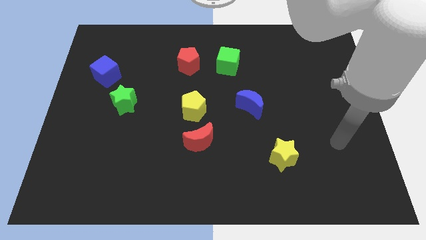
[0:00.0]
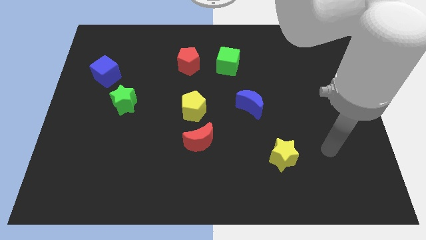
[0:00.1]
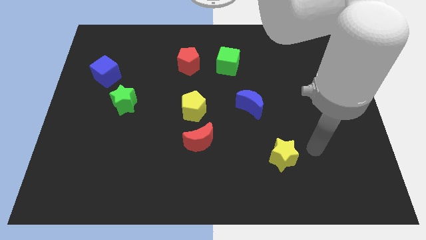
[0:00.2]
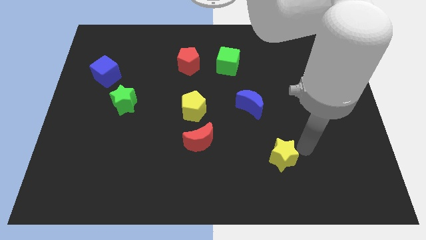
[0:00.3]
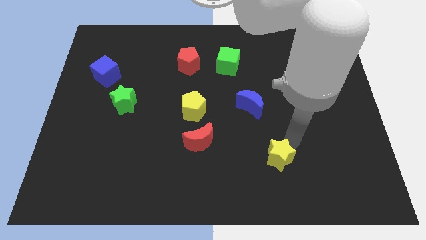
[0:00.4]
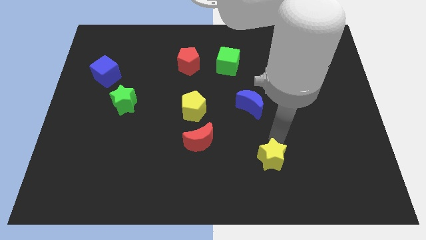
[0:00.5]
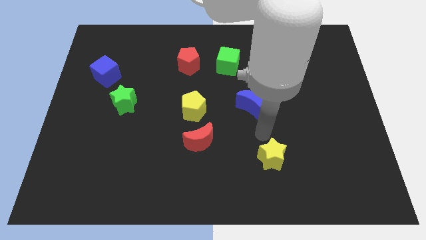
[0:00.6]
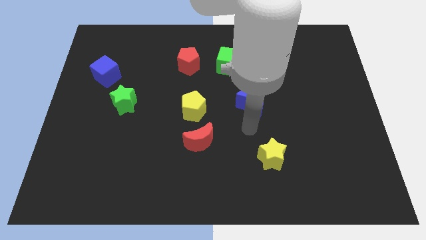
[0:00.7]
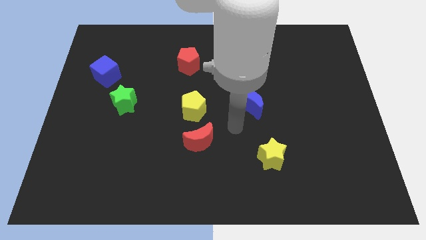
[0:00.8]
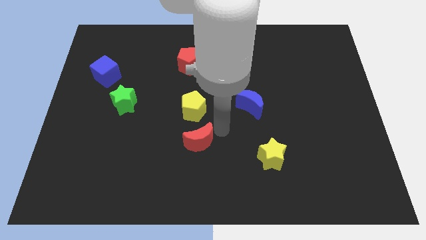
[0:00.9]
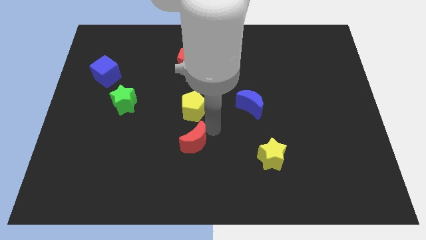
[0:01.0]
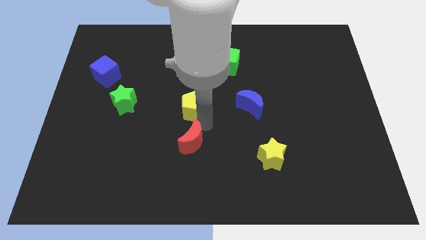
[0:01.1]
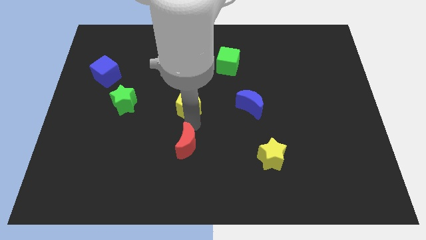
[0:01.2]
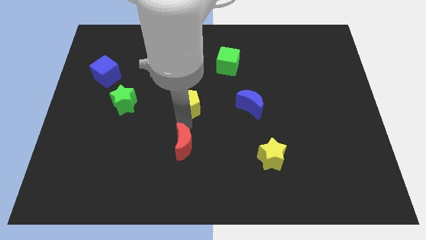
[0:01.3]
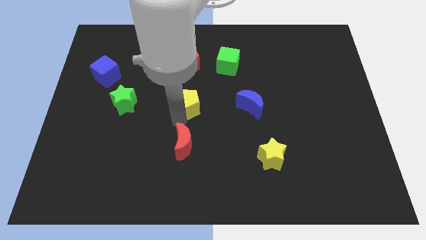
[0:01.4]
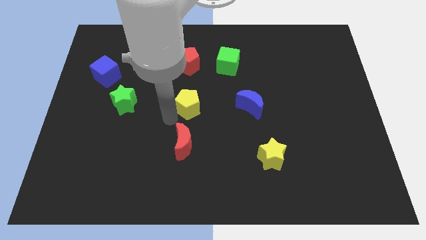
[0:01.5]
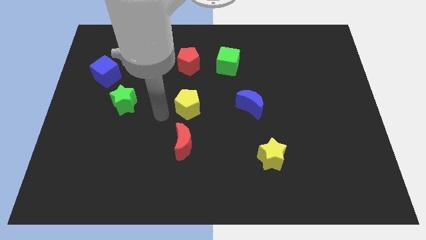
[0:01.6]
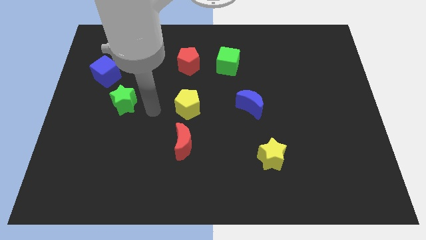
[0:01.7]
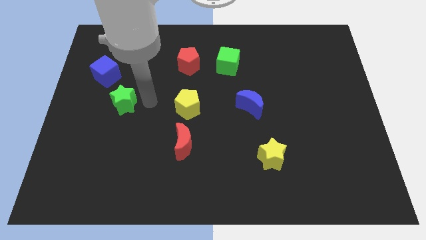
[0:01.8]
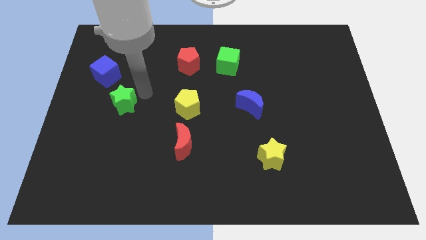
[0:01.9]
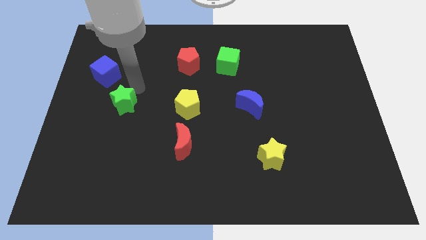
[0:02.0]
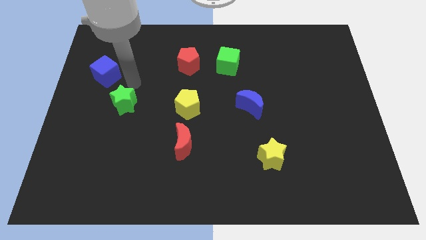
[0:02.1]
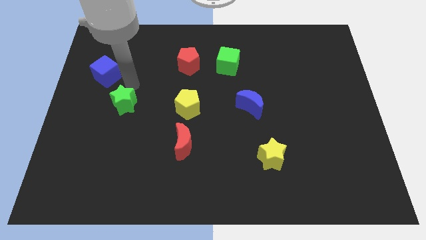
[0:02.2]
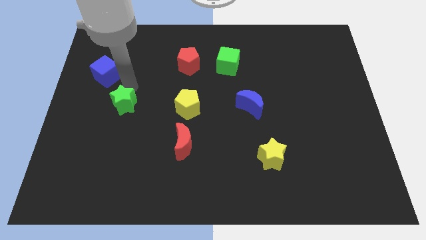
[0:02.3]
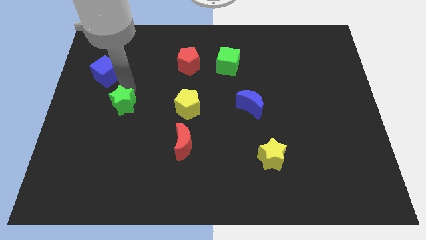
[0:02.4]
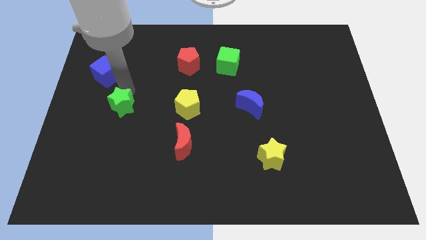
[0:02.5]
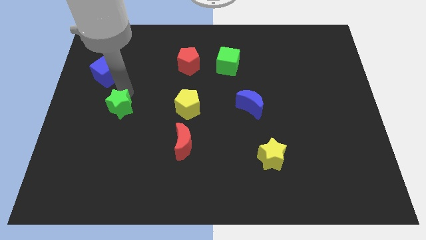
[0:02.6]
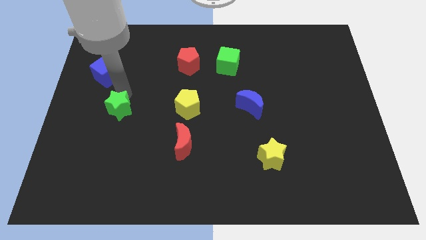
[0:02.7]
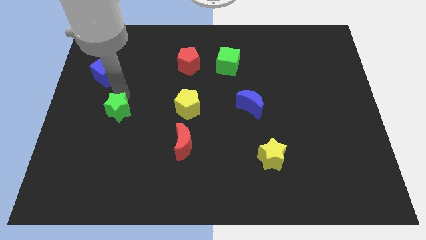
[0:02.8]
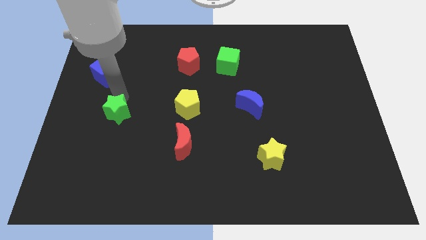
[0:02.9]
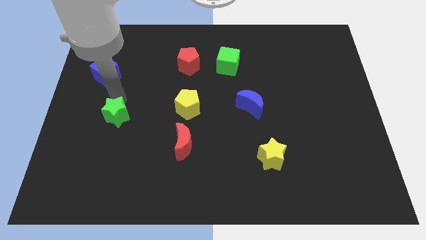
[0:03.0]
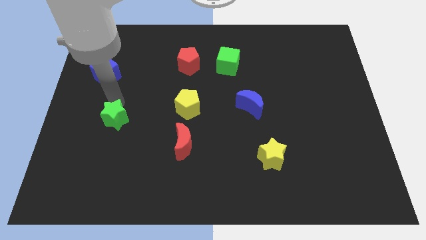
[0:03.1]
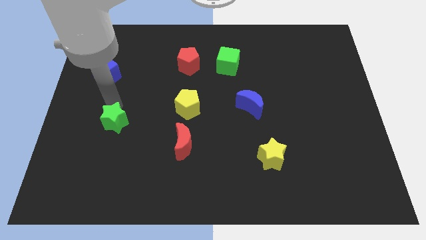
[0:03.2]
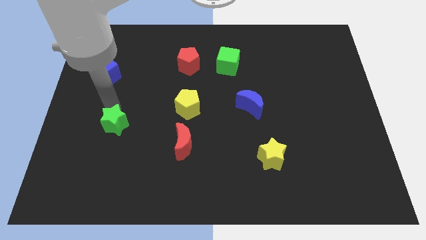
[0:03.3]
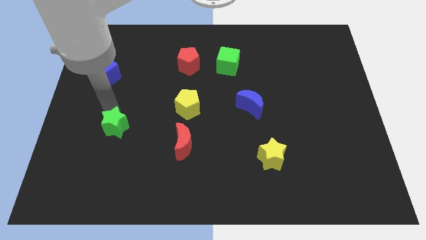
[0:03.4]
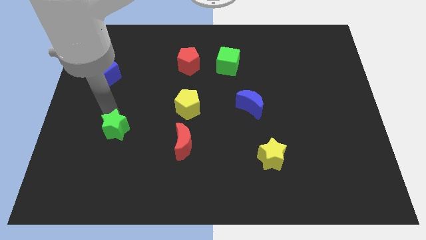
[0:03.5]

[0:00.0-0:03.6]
slightly move the green star down

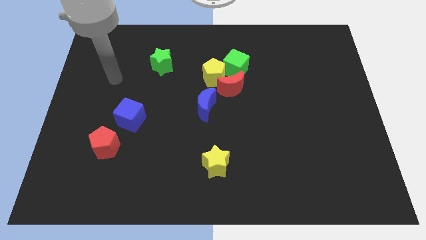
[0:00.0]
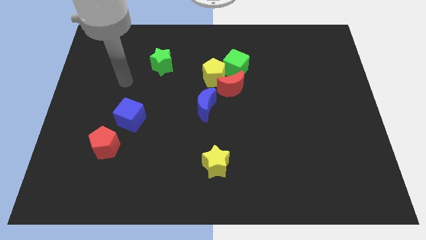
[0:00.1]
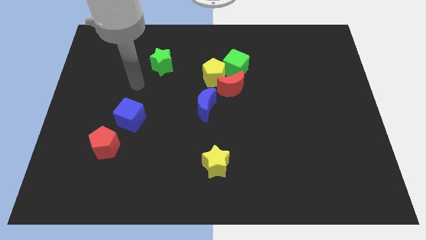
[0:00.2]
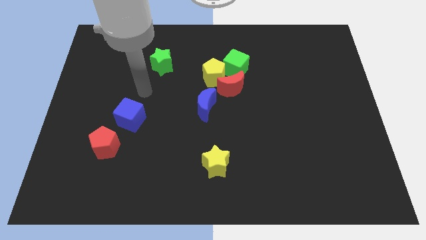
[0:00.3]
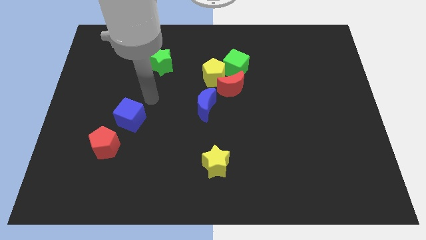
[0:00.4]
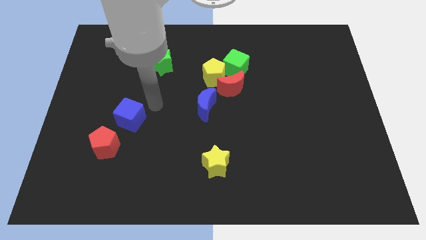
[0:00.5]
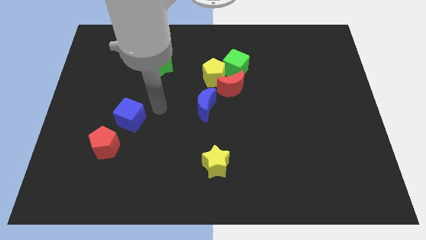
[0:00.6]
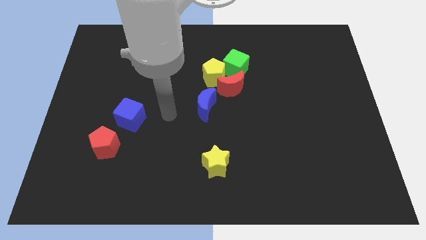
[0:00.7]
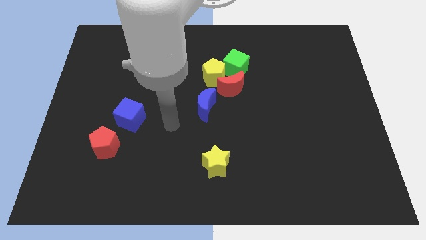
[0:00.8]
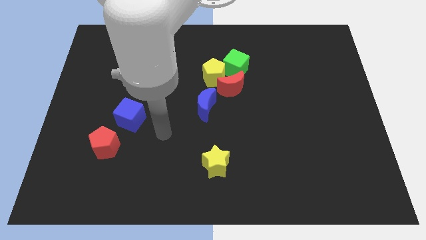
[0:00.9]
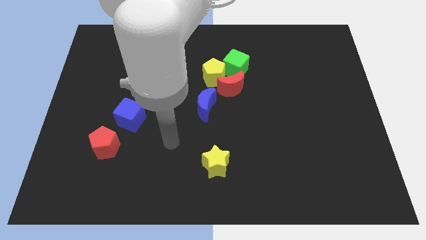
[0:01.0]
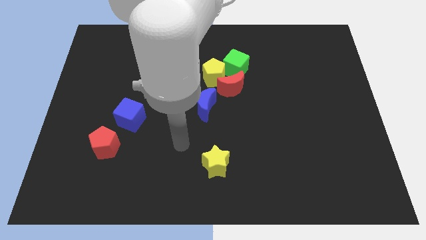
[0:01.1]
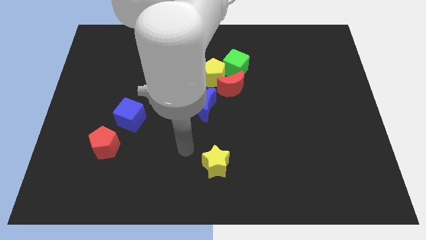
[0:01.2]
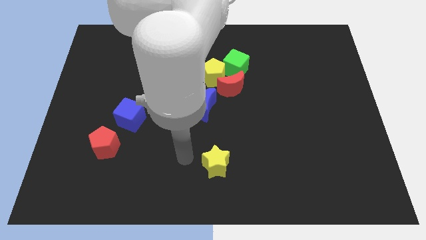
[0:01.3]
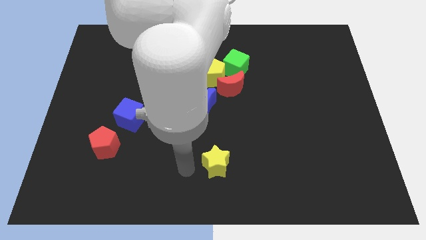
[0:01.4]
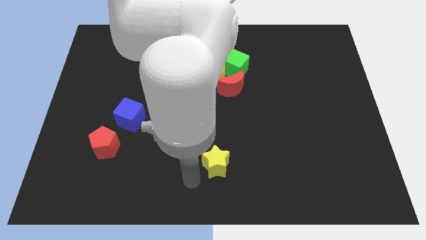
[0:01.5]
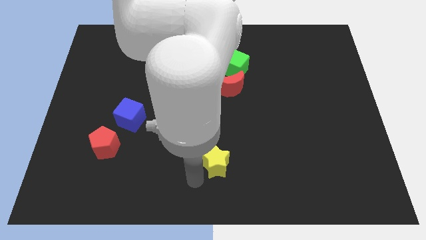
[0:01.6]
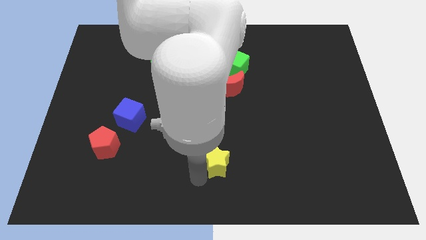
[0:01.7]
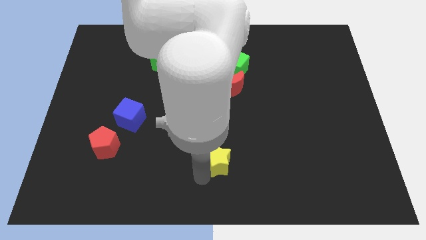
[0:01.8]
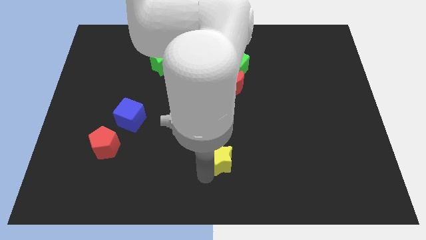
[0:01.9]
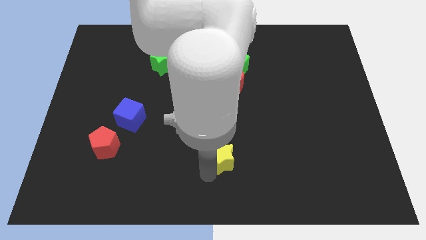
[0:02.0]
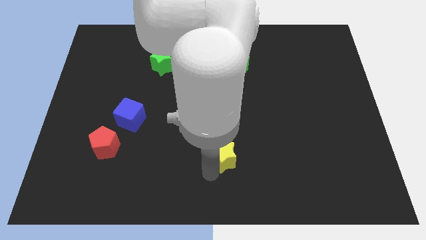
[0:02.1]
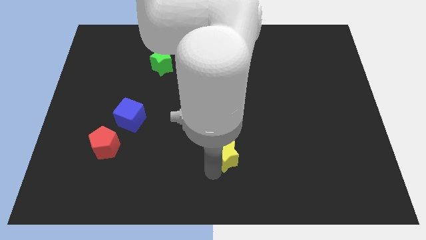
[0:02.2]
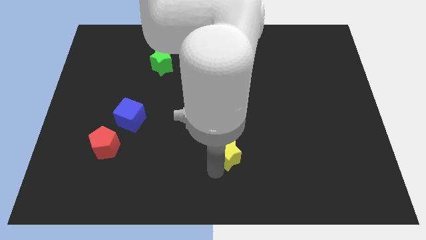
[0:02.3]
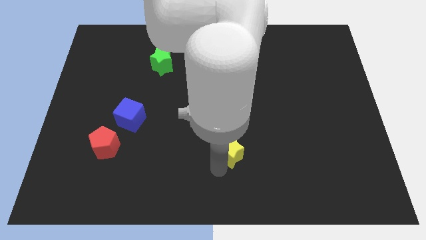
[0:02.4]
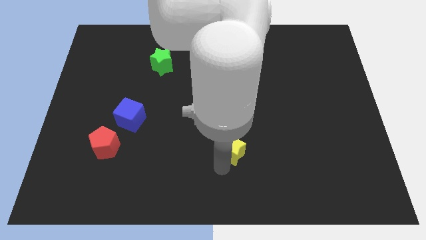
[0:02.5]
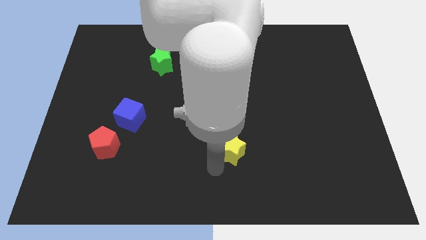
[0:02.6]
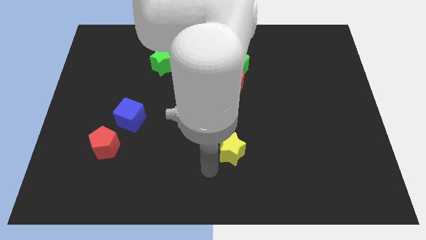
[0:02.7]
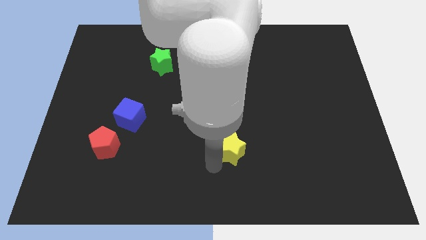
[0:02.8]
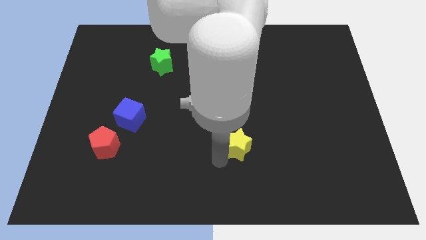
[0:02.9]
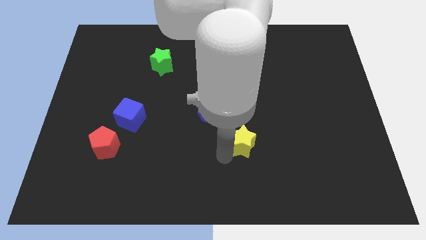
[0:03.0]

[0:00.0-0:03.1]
slightly push the yellow star diagonally upwards and to the right

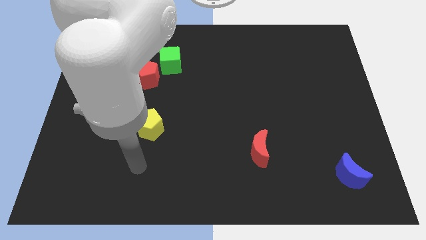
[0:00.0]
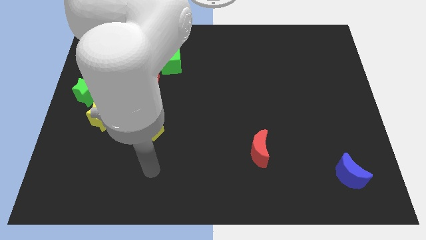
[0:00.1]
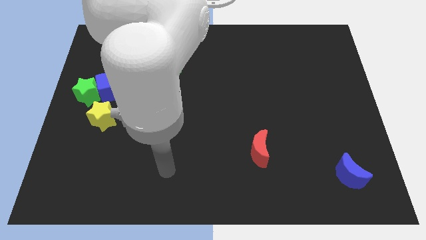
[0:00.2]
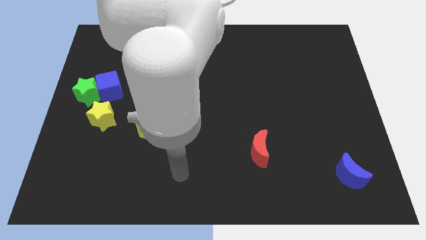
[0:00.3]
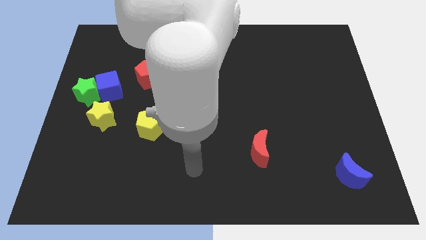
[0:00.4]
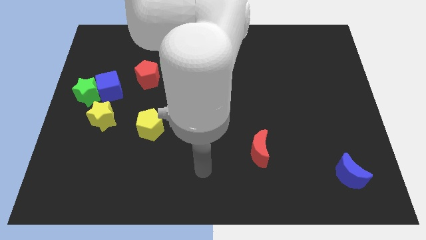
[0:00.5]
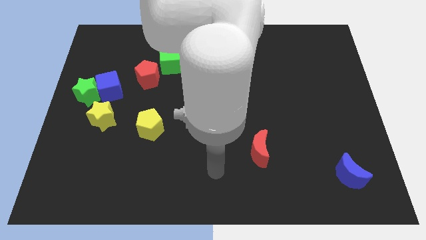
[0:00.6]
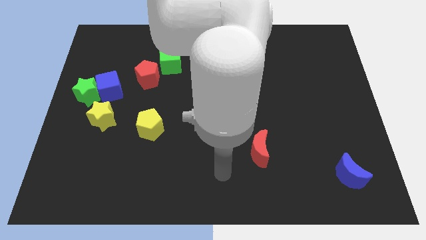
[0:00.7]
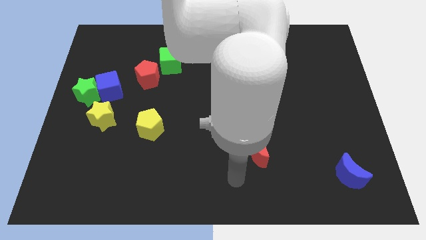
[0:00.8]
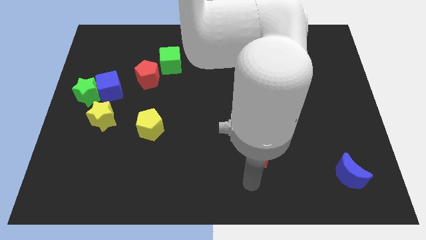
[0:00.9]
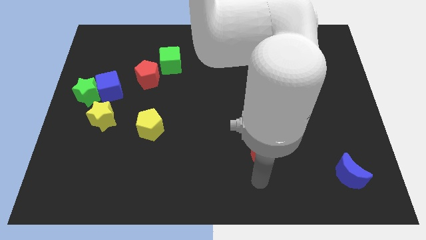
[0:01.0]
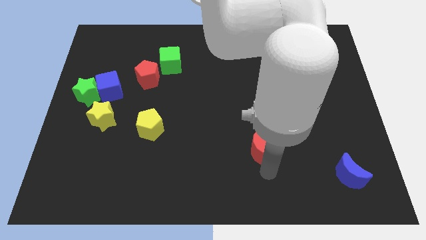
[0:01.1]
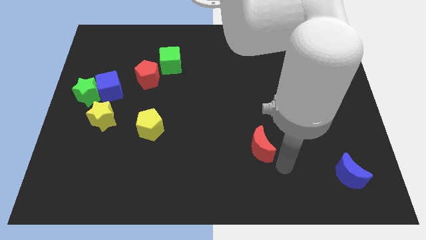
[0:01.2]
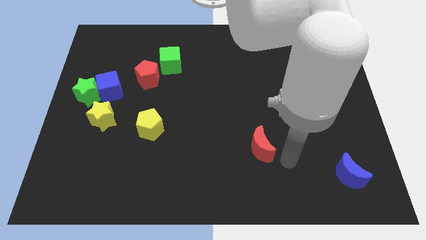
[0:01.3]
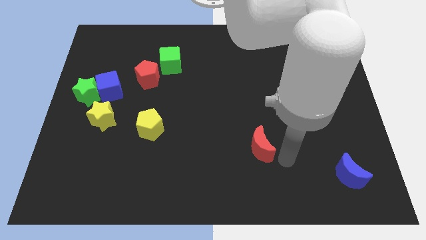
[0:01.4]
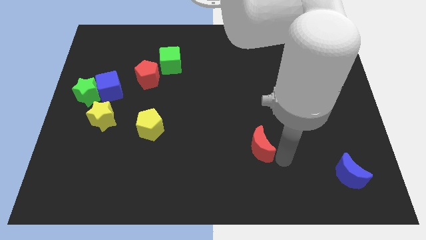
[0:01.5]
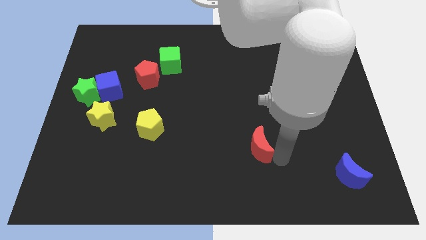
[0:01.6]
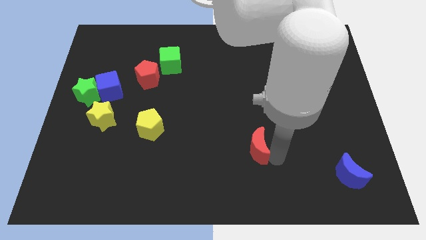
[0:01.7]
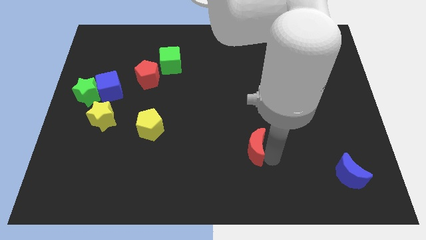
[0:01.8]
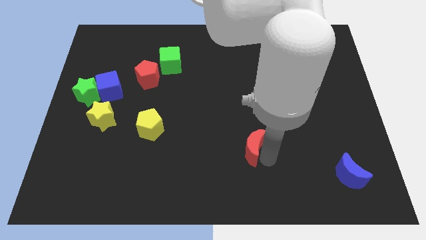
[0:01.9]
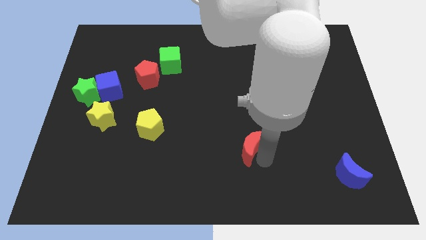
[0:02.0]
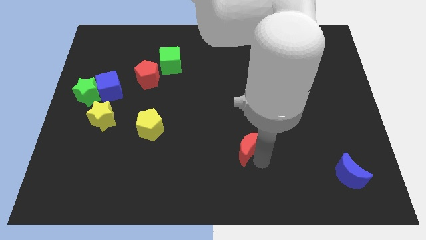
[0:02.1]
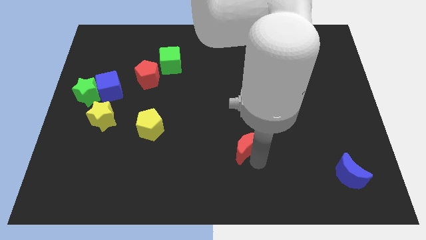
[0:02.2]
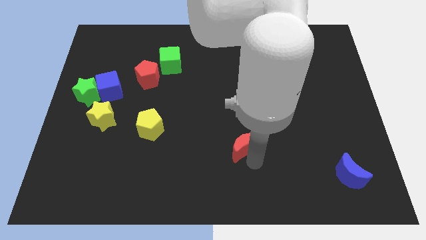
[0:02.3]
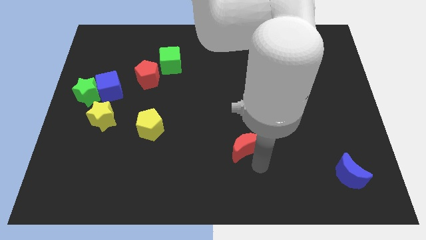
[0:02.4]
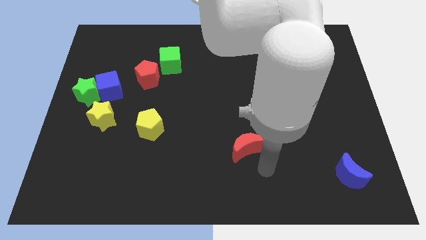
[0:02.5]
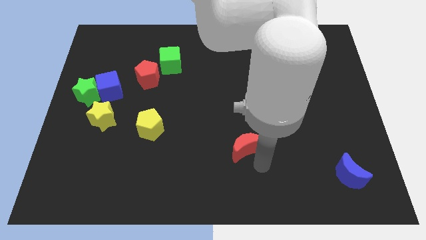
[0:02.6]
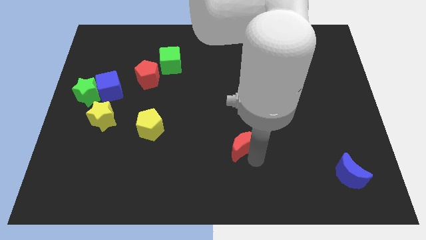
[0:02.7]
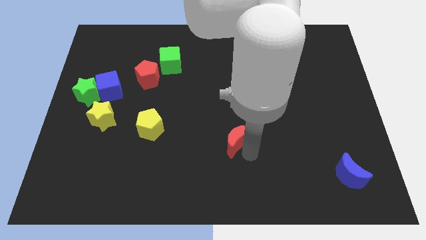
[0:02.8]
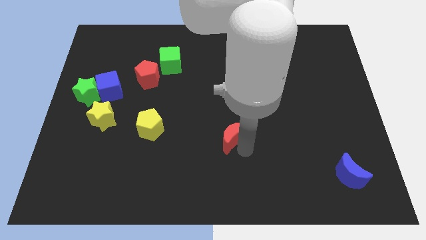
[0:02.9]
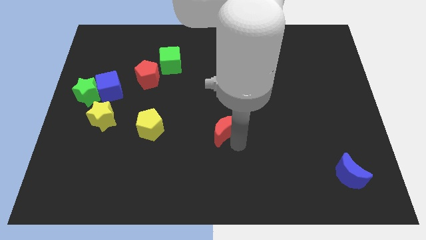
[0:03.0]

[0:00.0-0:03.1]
push the red moon slightly up and to the left
